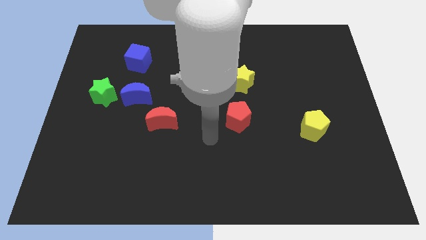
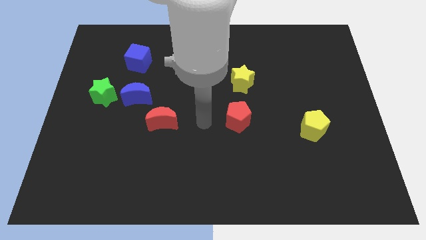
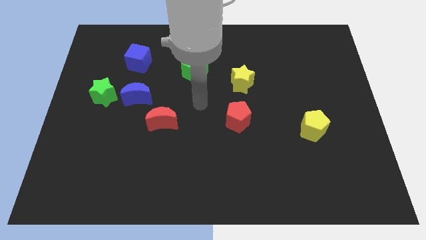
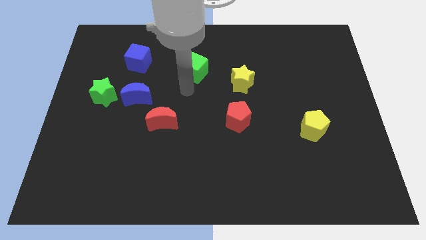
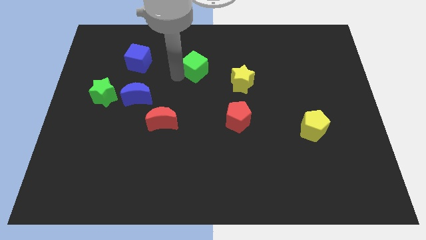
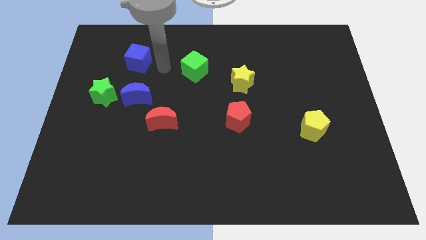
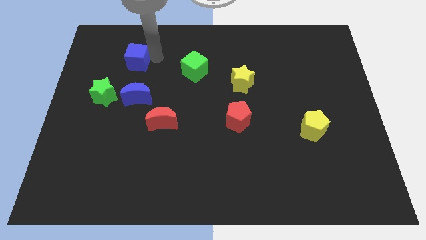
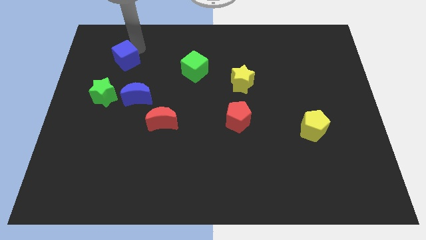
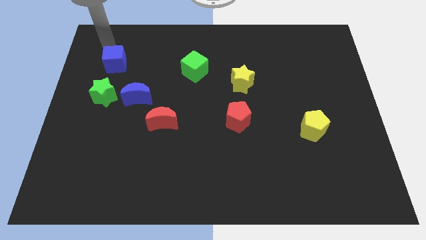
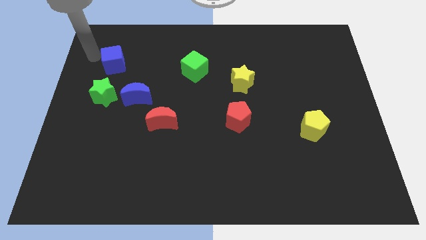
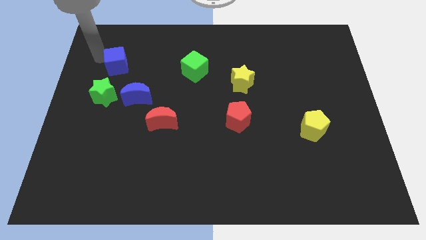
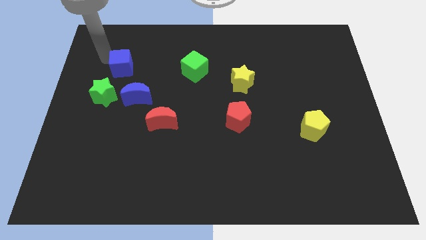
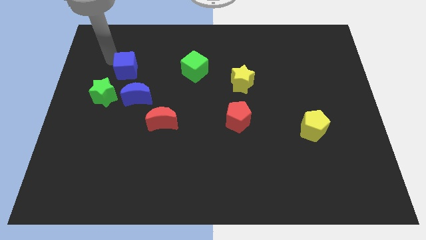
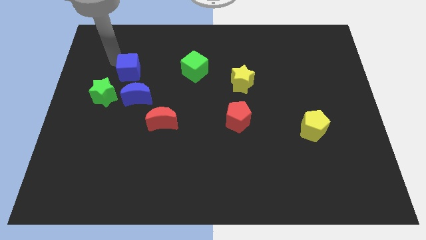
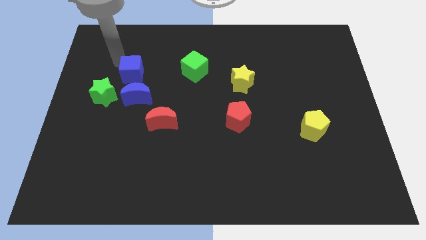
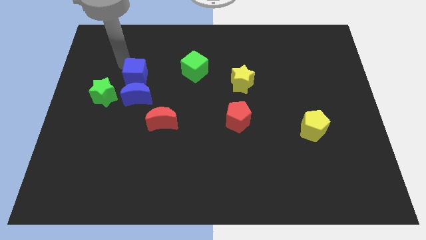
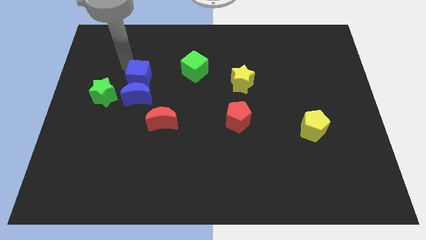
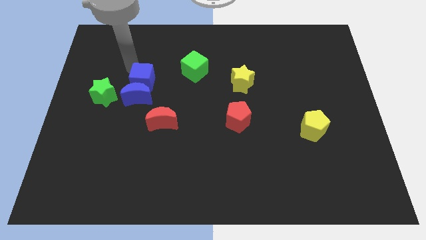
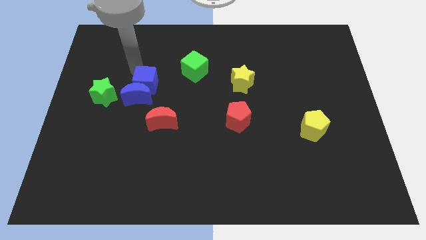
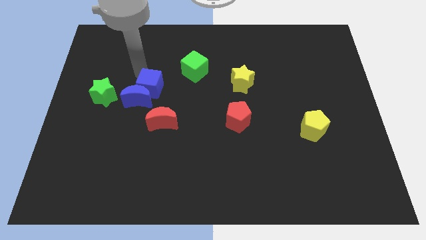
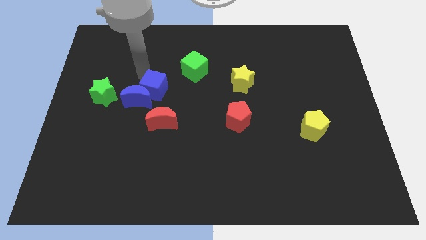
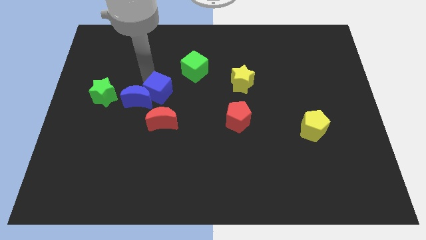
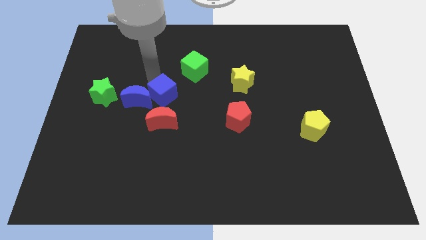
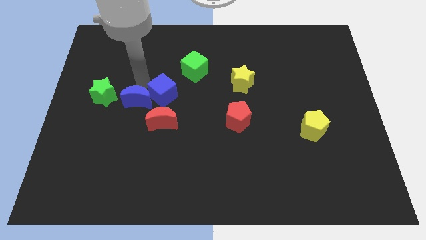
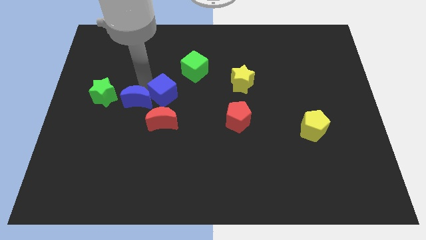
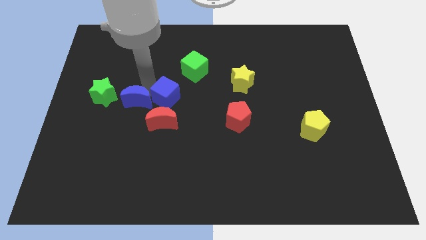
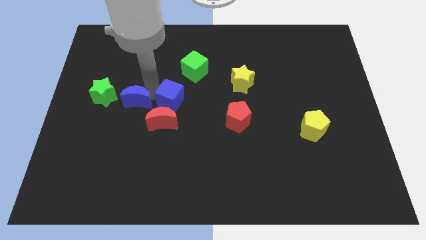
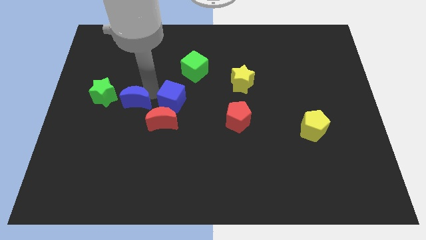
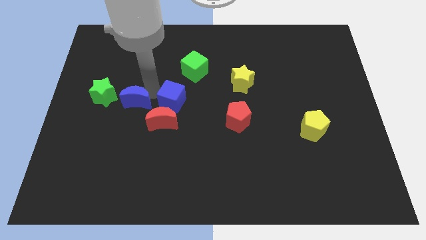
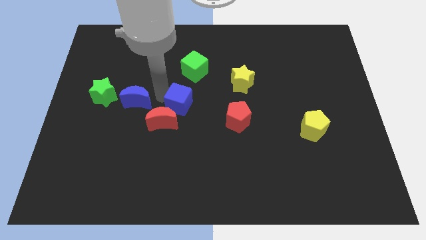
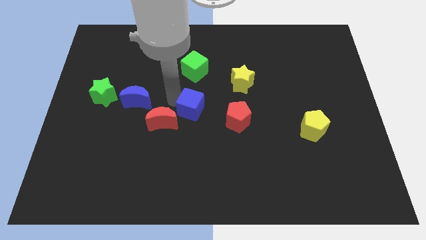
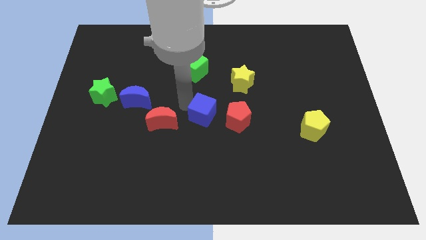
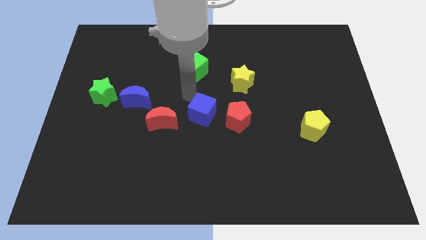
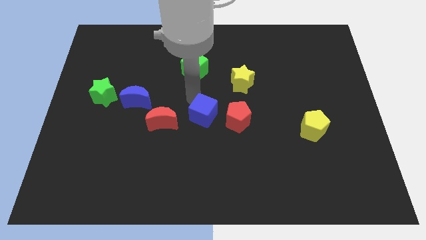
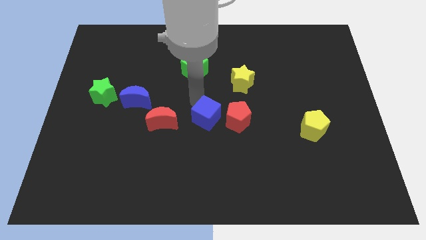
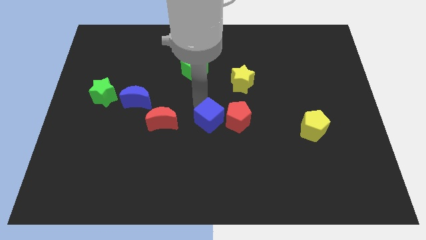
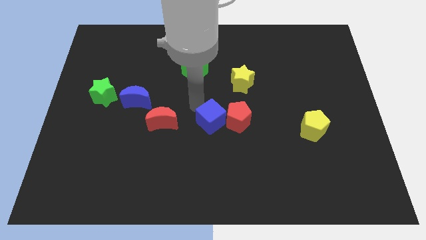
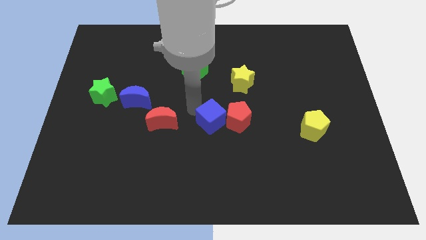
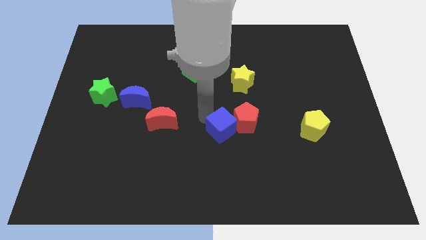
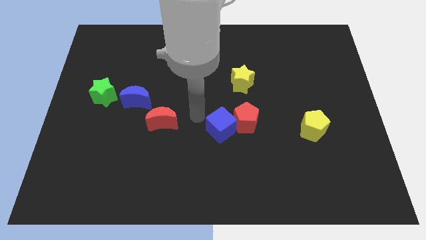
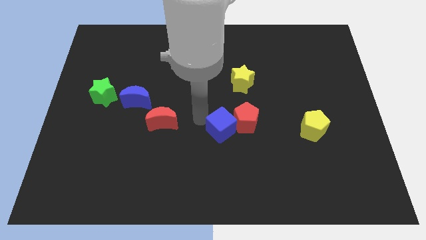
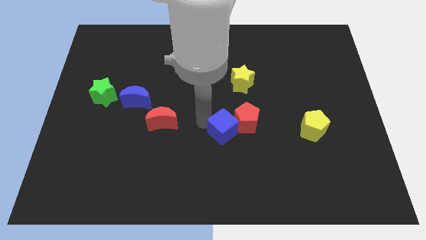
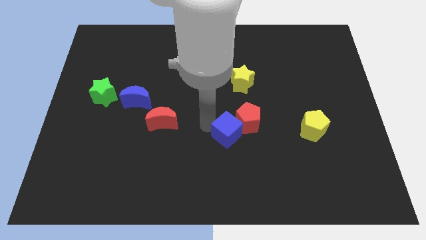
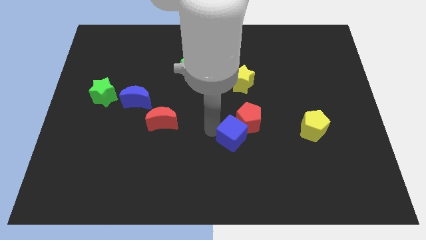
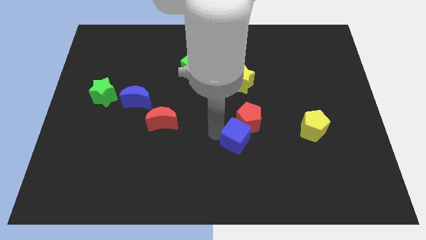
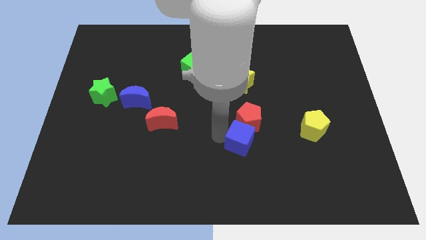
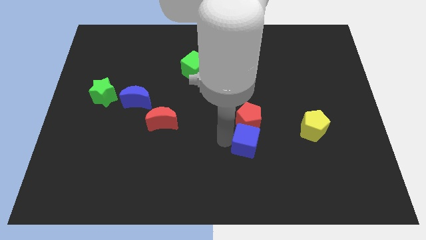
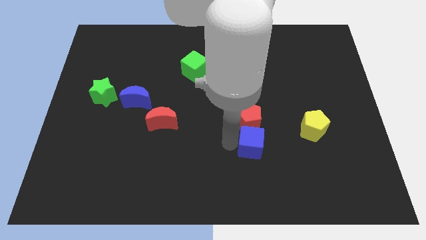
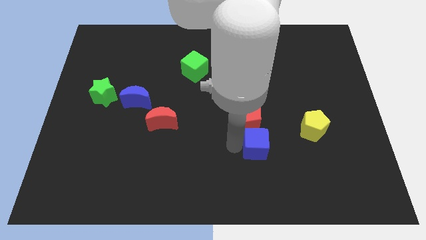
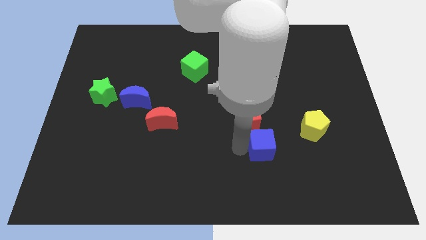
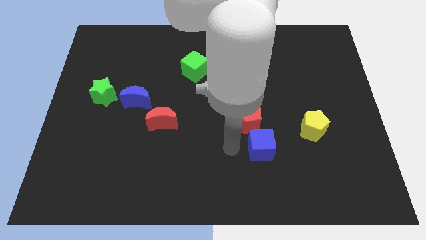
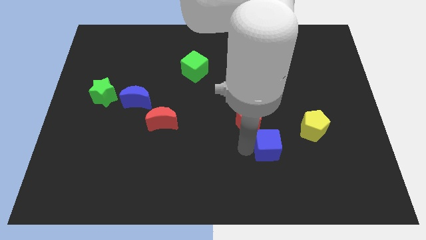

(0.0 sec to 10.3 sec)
slide the blue cube diagonally down and to the left of the yellow pentagon

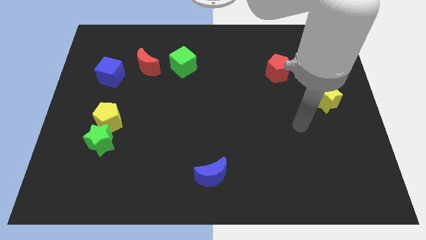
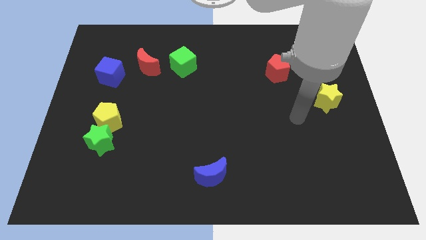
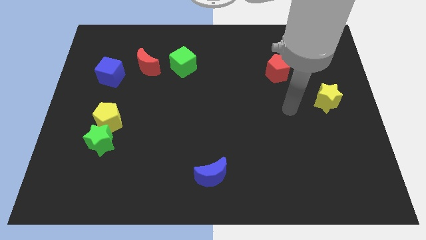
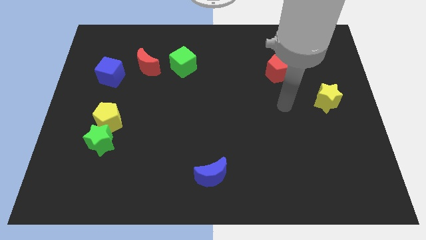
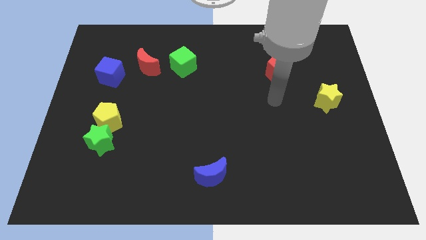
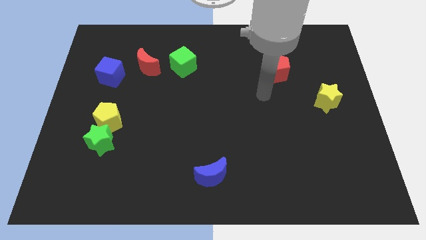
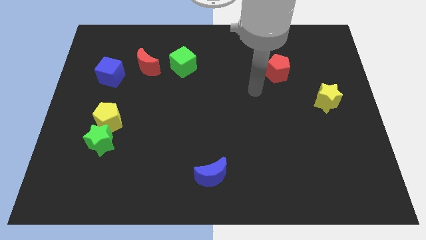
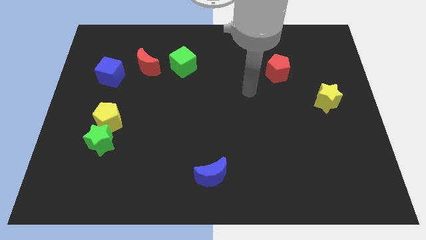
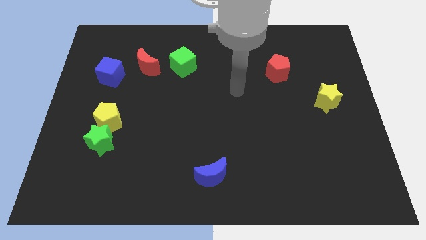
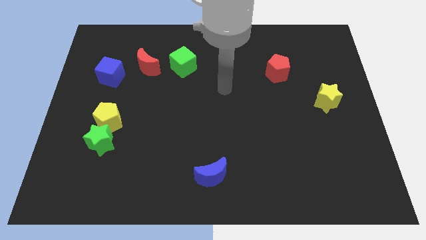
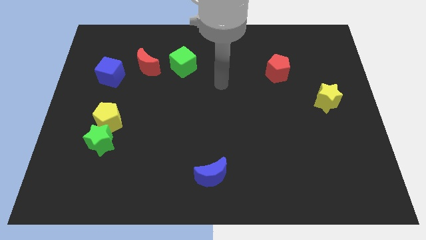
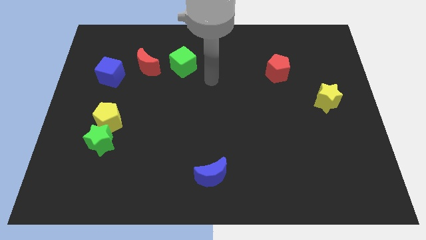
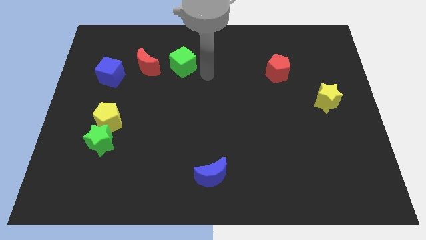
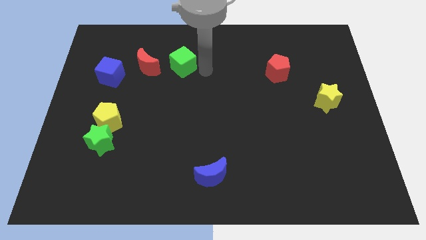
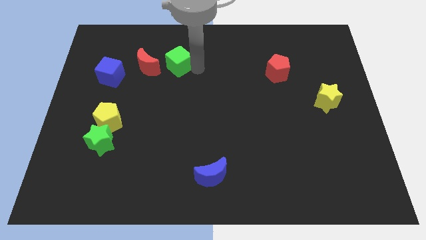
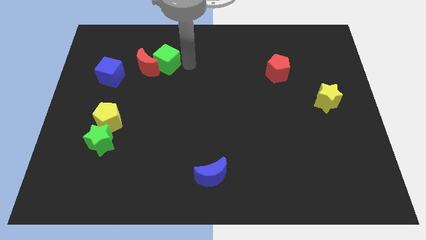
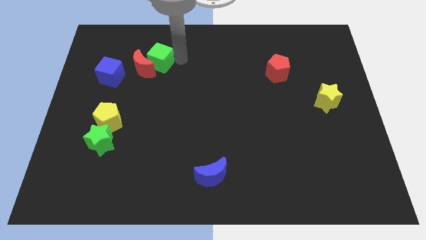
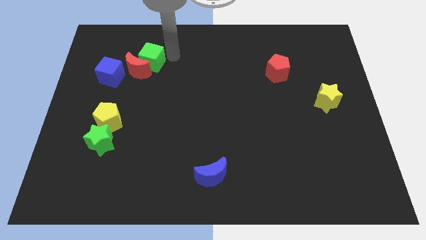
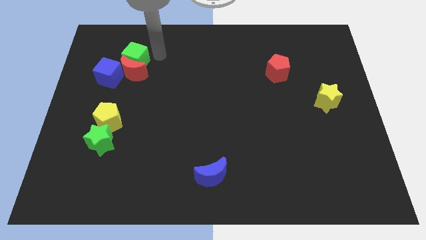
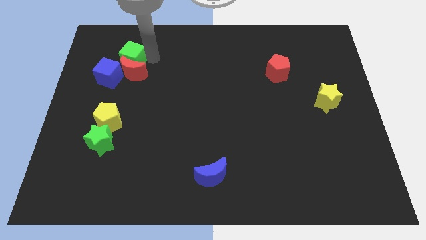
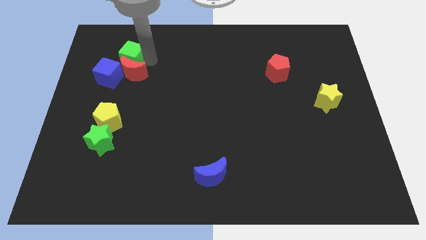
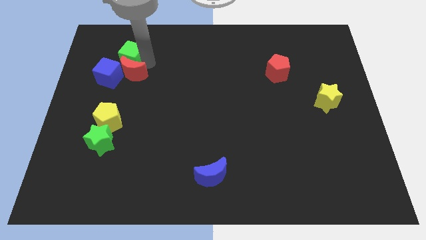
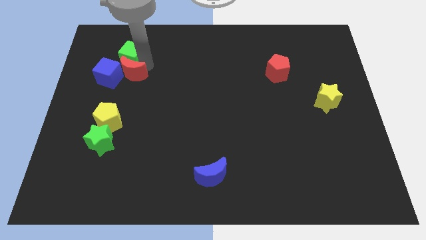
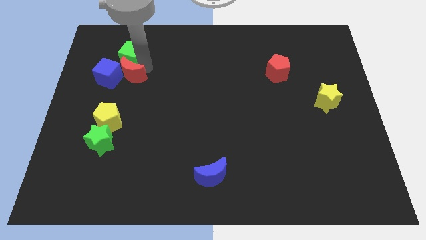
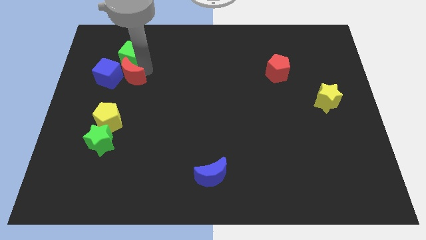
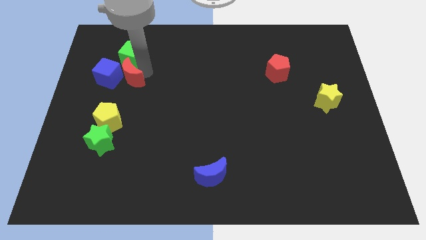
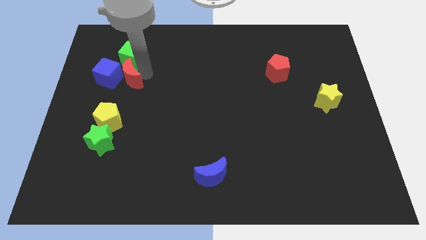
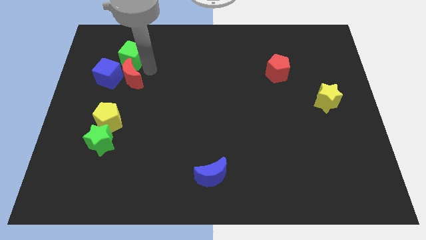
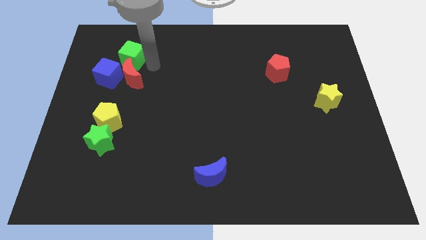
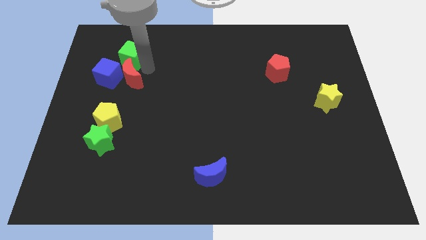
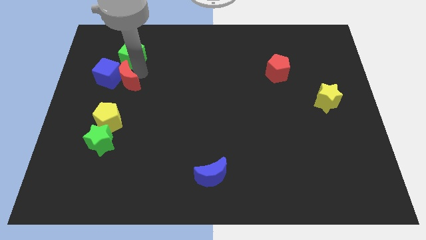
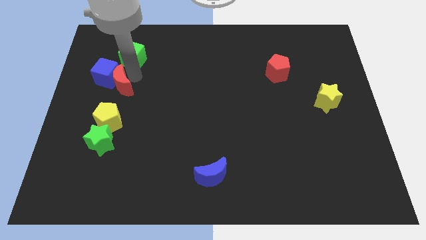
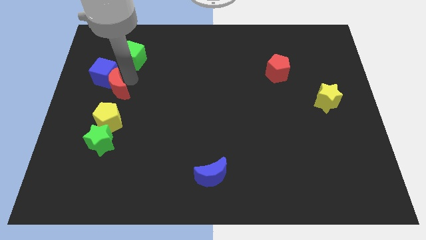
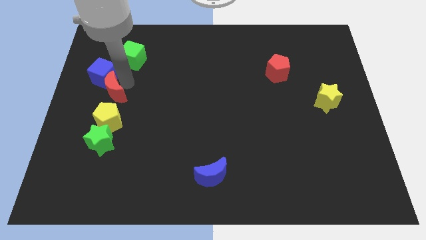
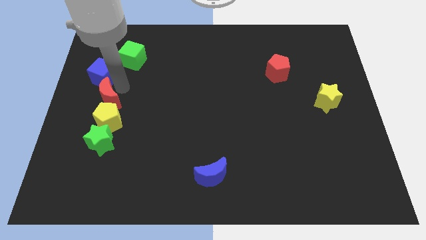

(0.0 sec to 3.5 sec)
slide the red moon to the top left of the yellow pentagon
